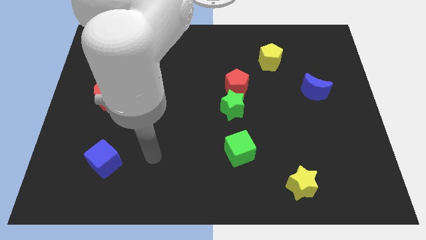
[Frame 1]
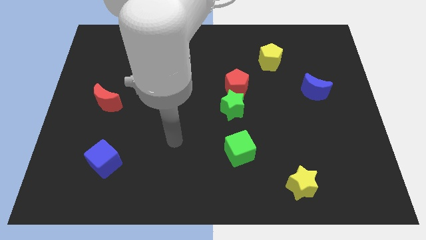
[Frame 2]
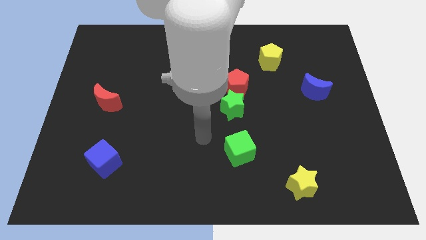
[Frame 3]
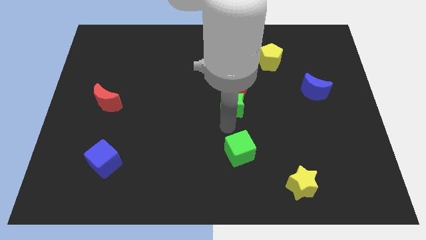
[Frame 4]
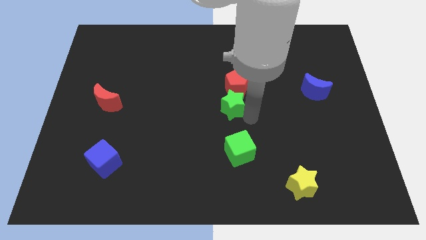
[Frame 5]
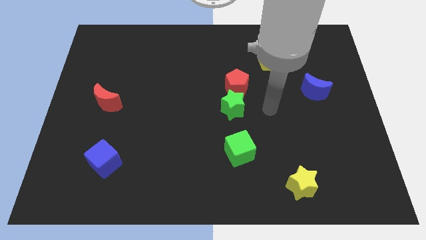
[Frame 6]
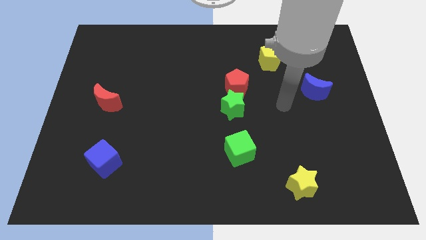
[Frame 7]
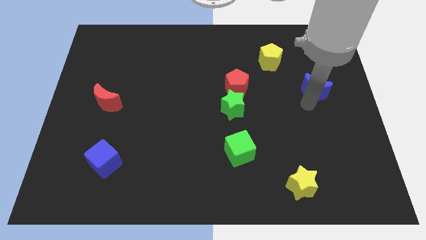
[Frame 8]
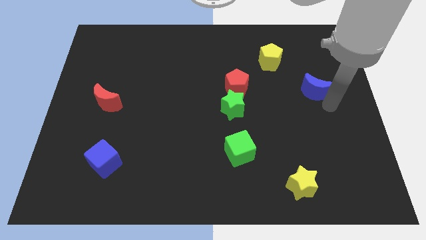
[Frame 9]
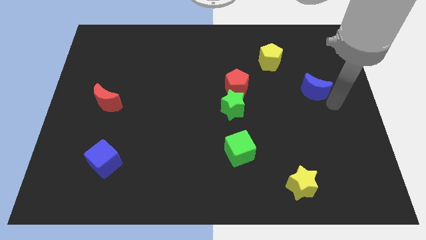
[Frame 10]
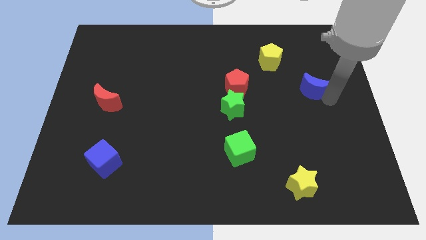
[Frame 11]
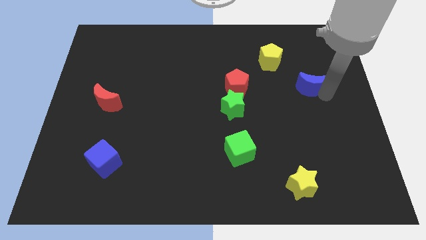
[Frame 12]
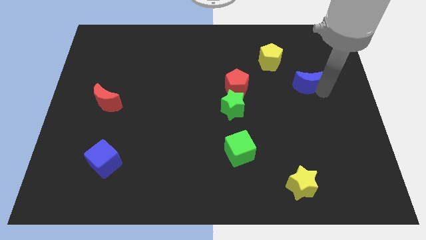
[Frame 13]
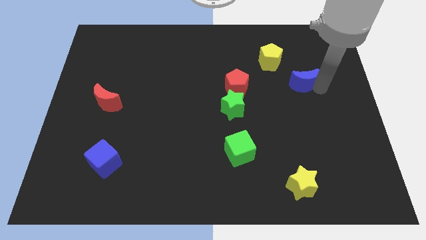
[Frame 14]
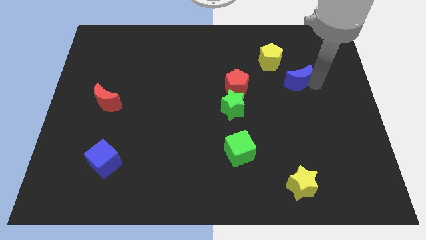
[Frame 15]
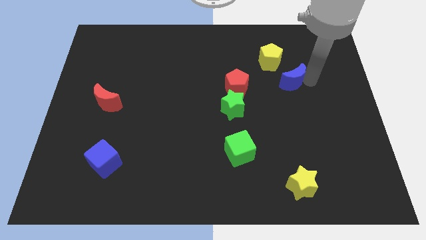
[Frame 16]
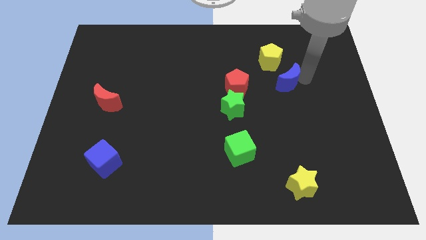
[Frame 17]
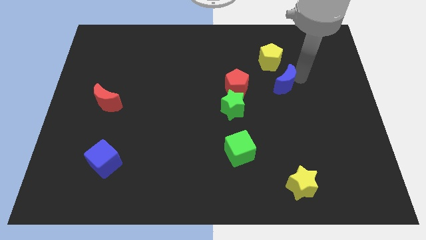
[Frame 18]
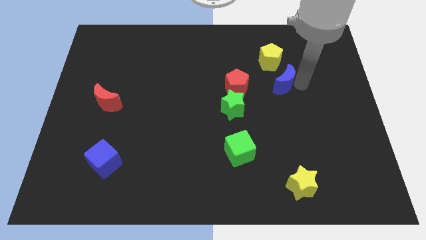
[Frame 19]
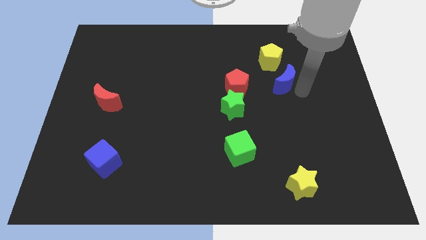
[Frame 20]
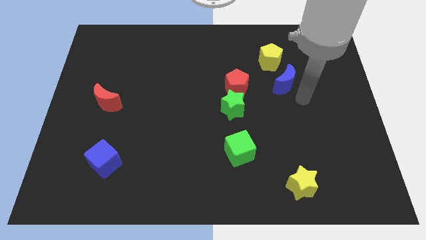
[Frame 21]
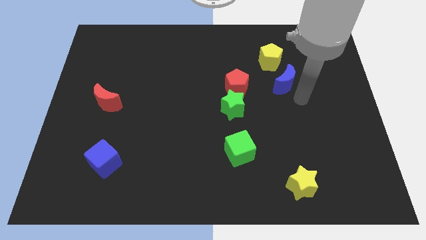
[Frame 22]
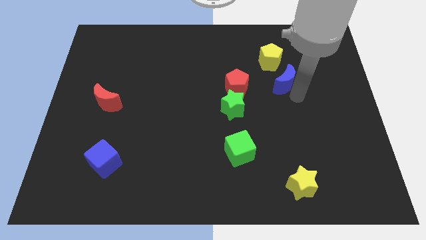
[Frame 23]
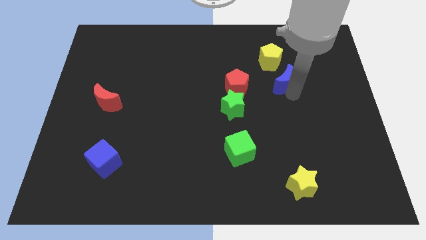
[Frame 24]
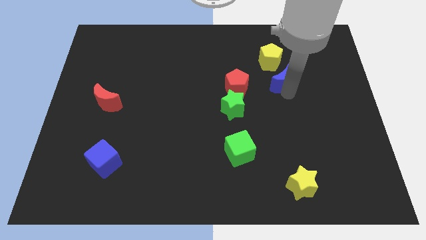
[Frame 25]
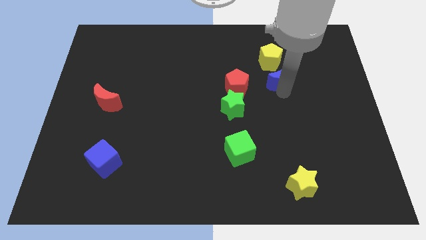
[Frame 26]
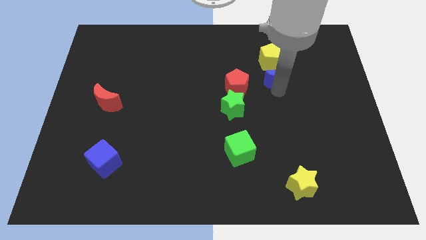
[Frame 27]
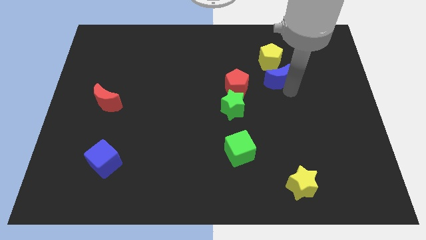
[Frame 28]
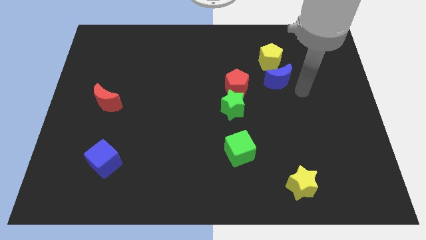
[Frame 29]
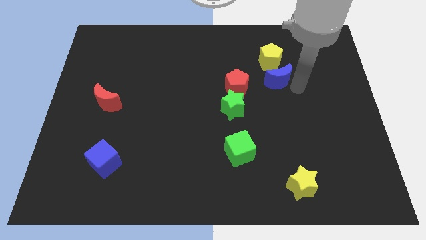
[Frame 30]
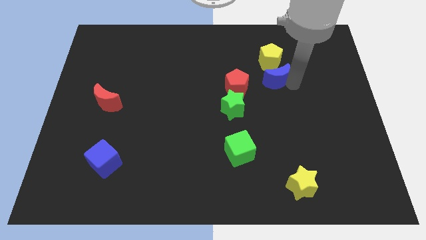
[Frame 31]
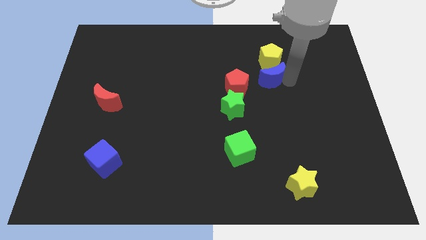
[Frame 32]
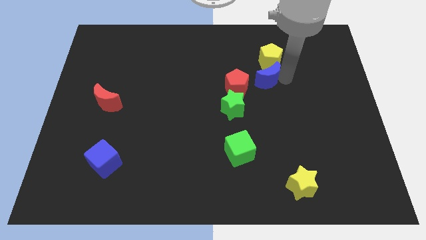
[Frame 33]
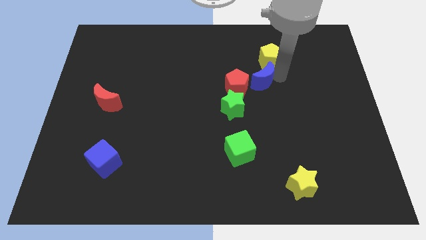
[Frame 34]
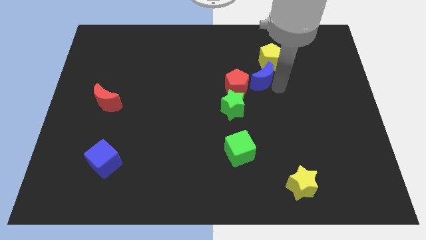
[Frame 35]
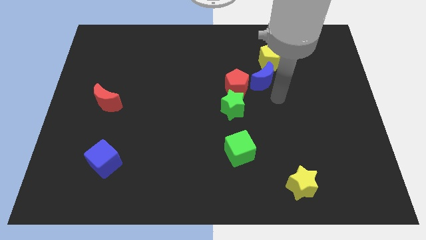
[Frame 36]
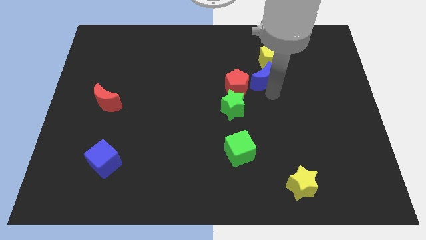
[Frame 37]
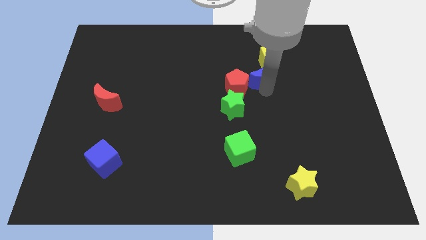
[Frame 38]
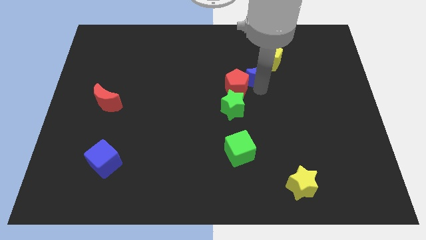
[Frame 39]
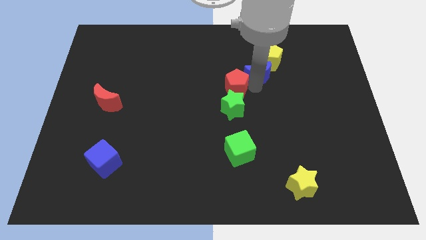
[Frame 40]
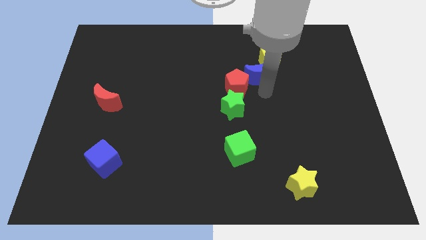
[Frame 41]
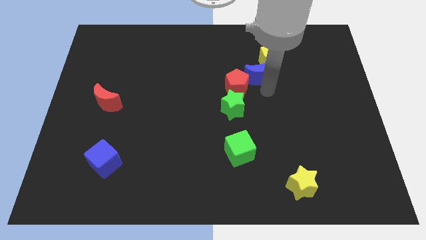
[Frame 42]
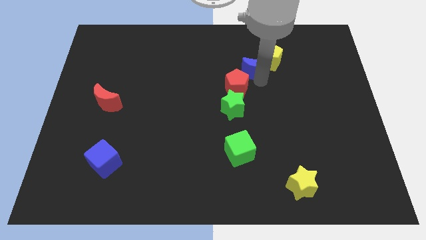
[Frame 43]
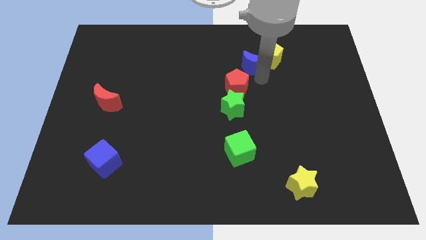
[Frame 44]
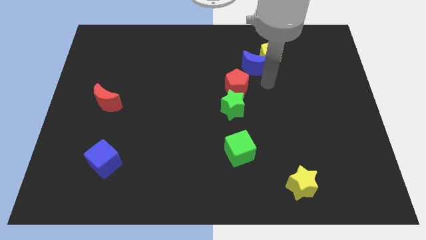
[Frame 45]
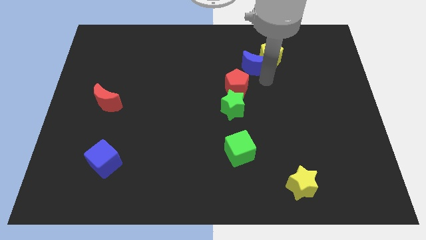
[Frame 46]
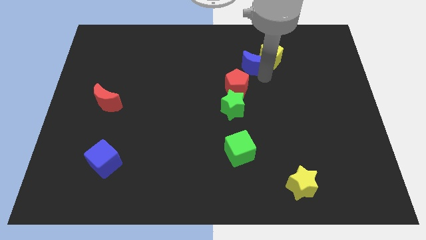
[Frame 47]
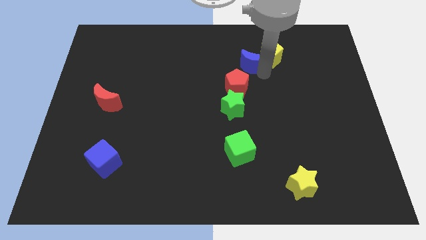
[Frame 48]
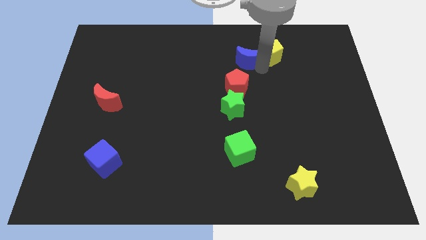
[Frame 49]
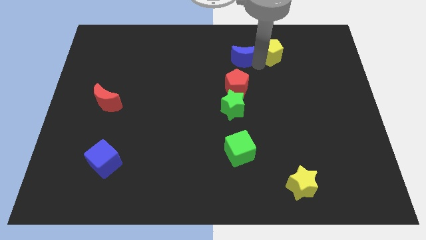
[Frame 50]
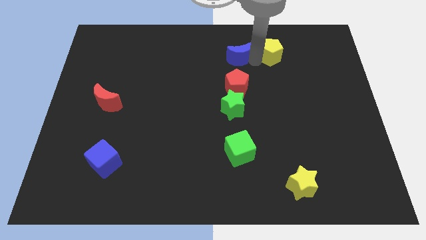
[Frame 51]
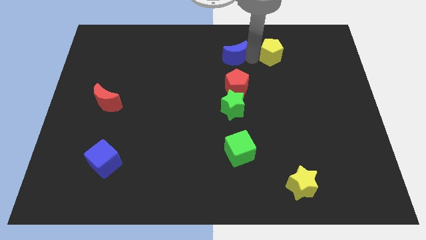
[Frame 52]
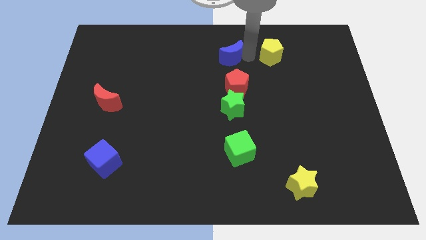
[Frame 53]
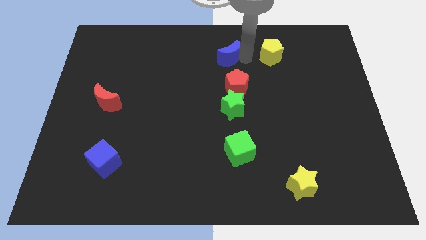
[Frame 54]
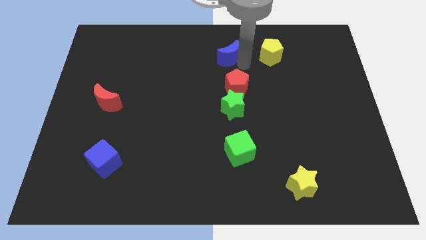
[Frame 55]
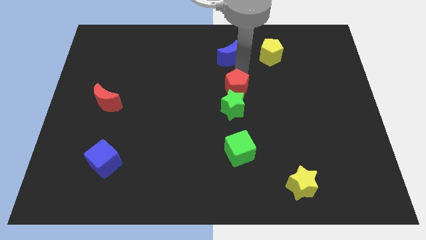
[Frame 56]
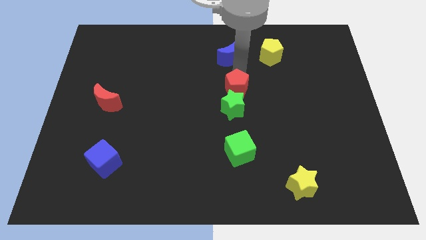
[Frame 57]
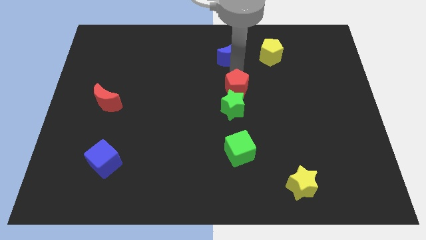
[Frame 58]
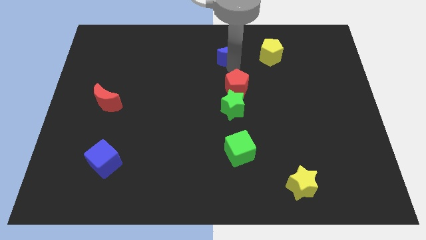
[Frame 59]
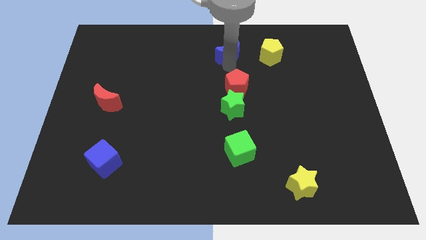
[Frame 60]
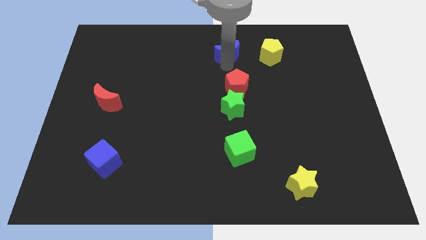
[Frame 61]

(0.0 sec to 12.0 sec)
move the blue moon to the towards your base

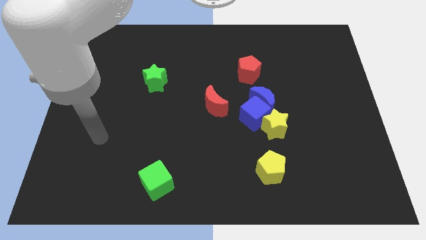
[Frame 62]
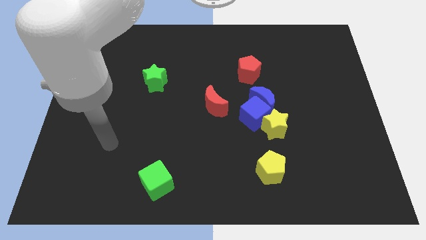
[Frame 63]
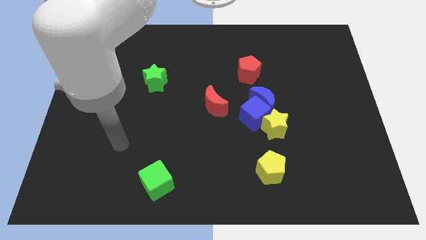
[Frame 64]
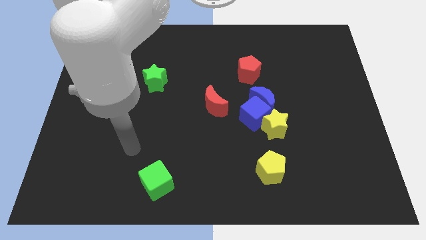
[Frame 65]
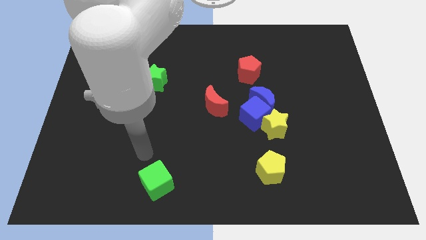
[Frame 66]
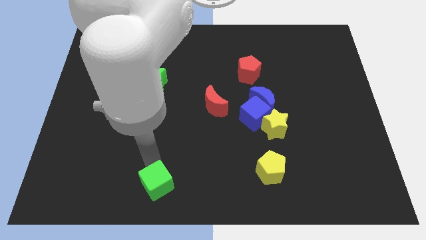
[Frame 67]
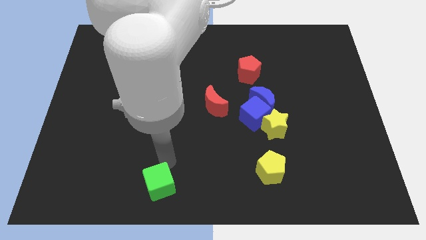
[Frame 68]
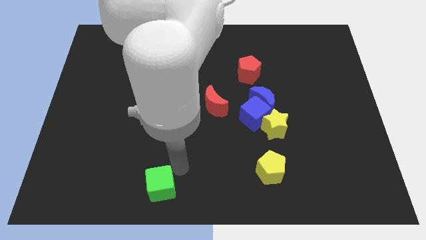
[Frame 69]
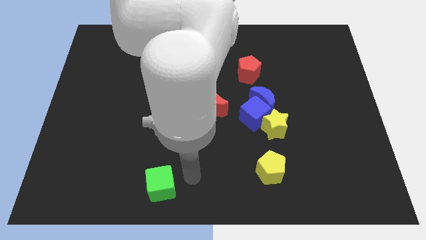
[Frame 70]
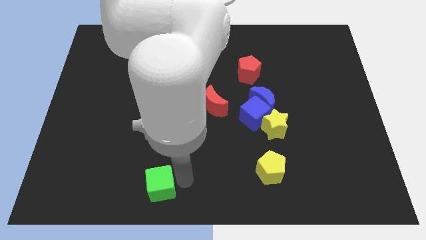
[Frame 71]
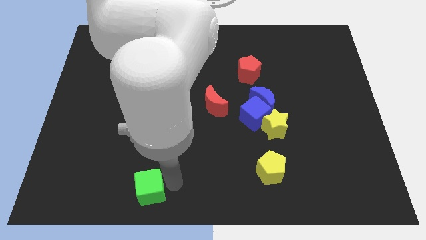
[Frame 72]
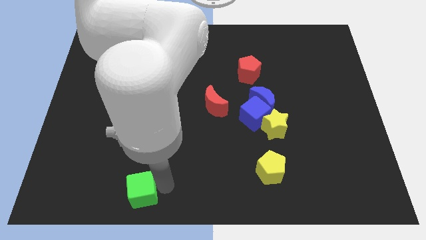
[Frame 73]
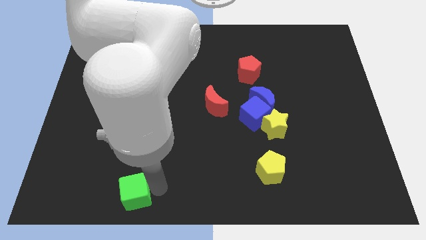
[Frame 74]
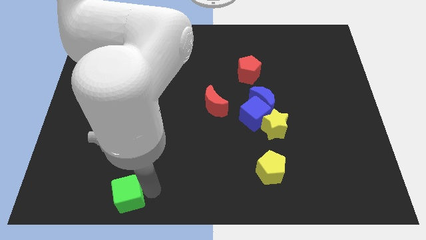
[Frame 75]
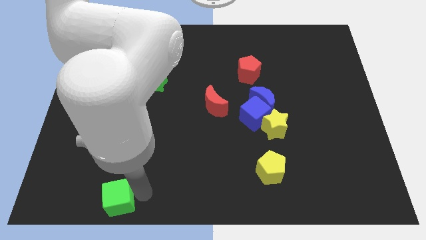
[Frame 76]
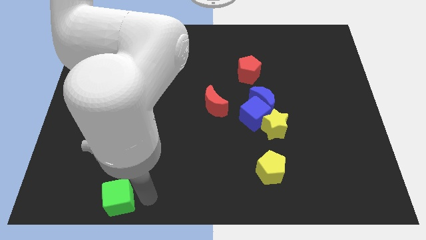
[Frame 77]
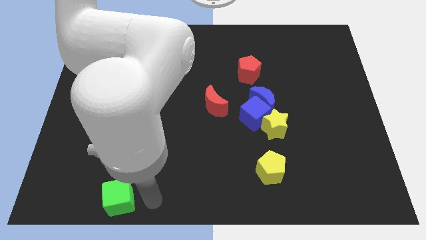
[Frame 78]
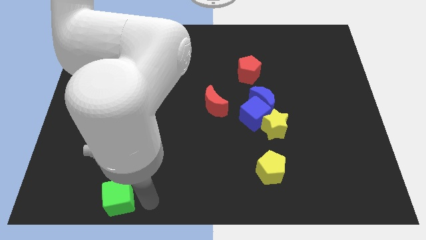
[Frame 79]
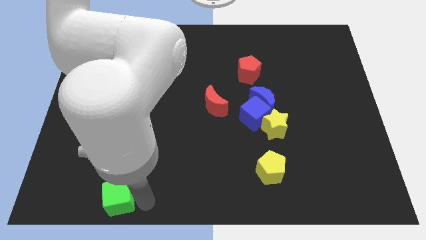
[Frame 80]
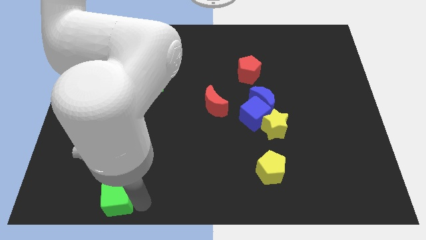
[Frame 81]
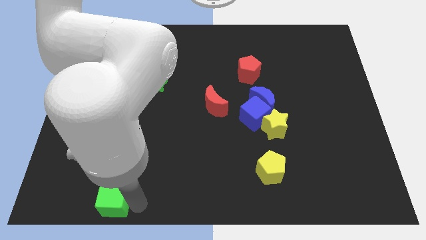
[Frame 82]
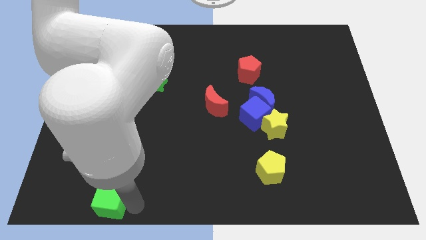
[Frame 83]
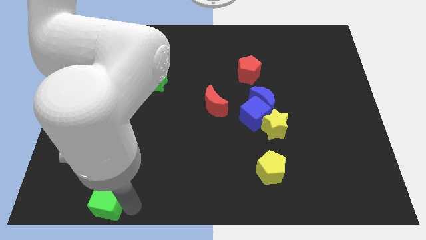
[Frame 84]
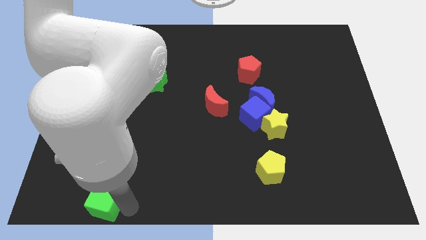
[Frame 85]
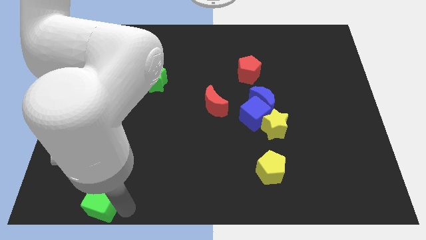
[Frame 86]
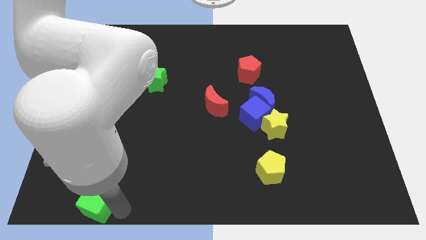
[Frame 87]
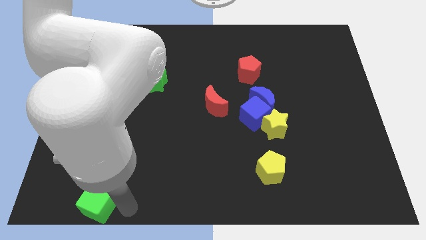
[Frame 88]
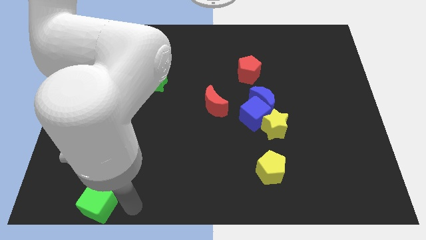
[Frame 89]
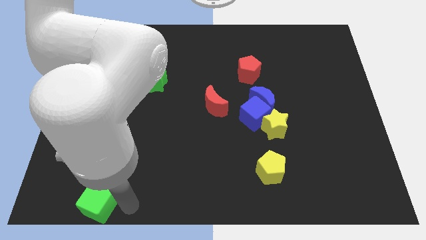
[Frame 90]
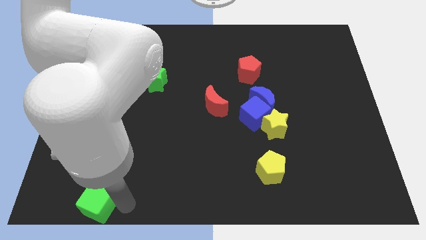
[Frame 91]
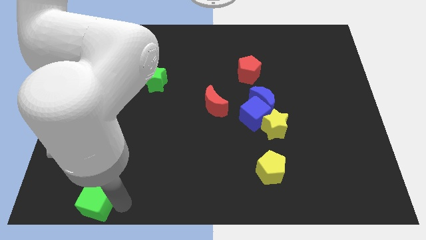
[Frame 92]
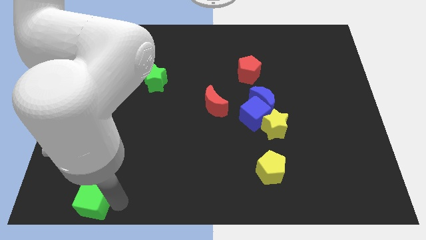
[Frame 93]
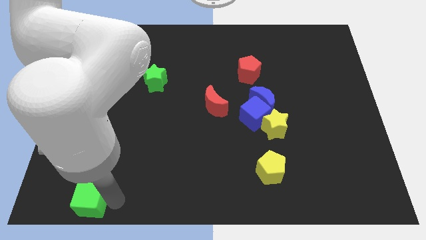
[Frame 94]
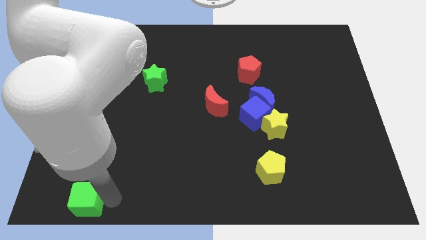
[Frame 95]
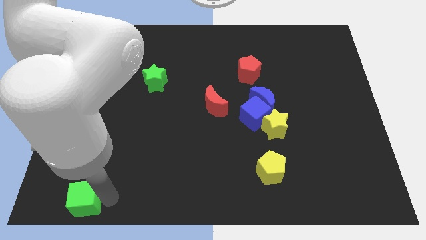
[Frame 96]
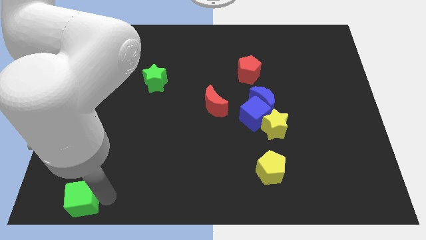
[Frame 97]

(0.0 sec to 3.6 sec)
push the green cube to the bottom left corner
